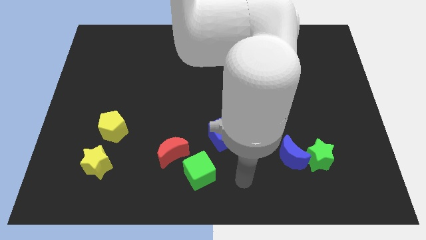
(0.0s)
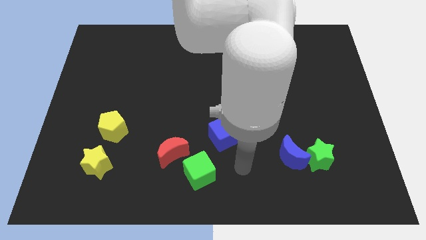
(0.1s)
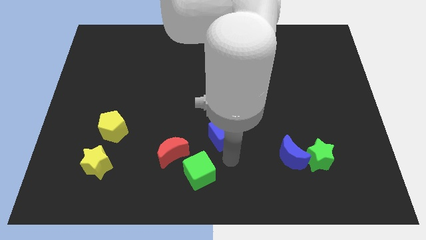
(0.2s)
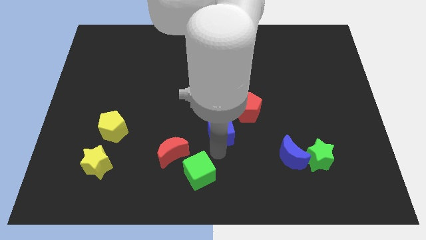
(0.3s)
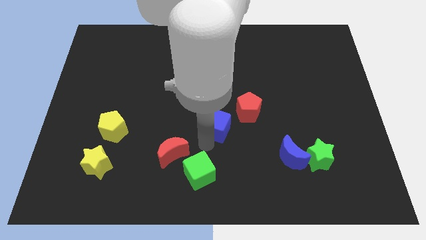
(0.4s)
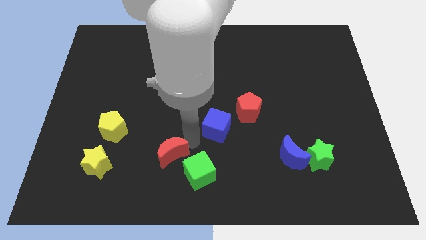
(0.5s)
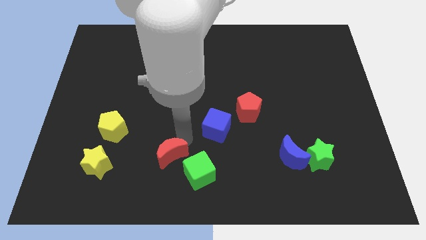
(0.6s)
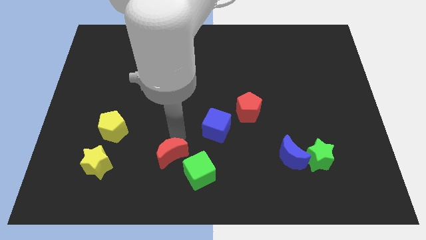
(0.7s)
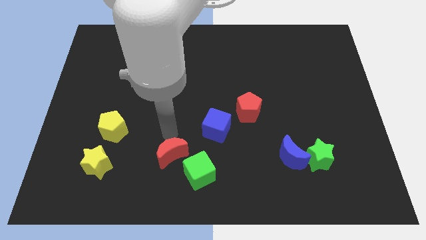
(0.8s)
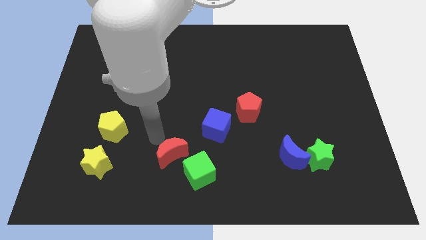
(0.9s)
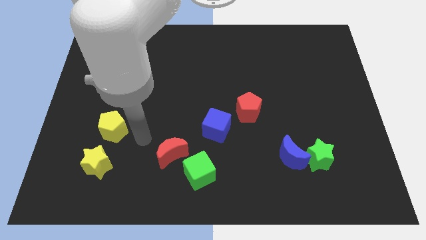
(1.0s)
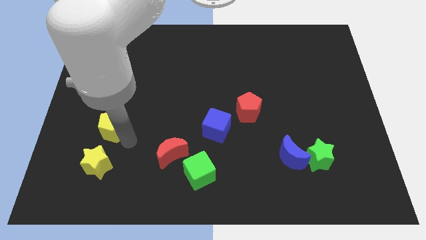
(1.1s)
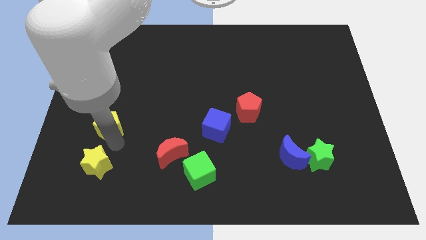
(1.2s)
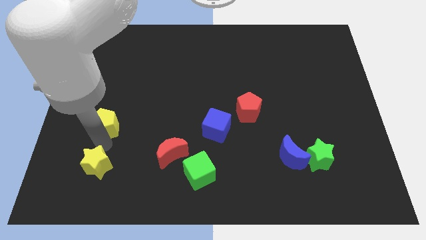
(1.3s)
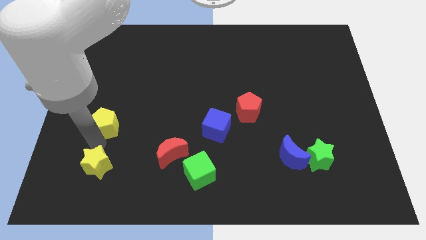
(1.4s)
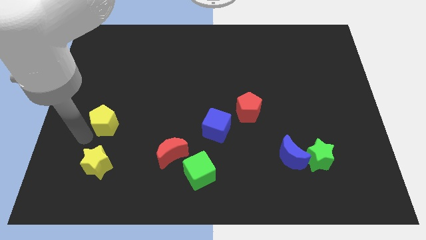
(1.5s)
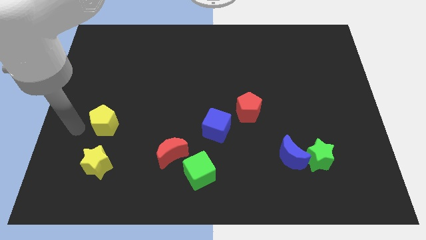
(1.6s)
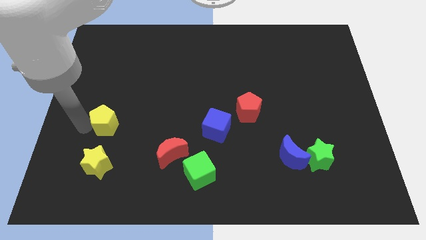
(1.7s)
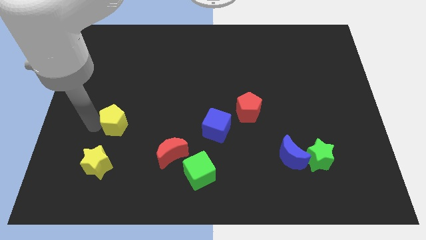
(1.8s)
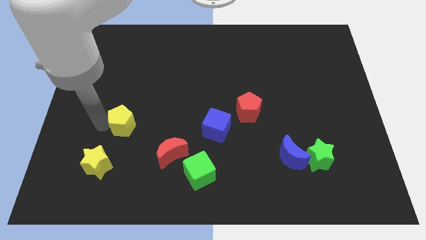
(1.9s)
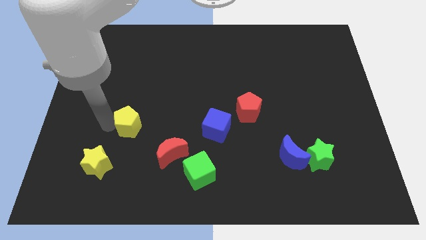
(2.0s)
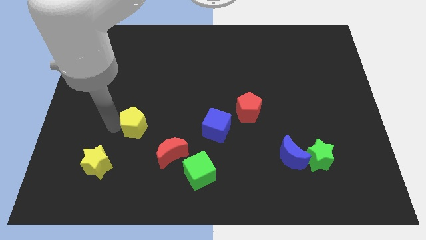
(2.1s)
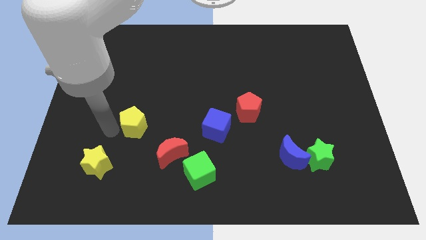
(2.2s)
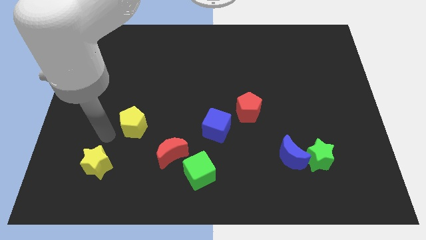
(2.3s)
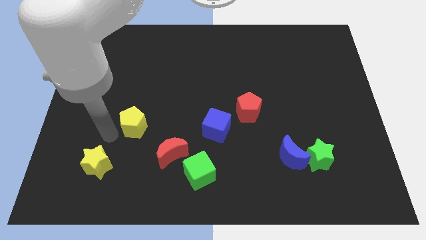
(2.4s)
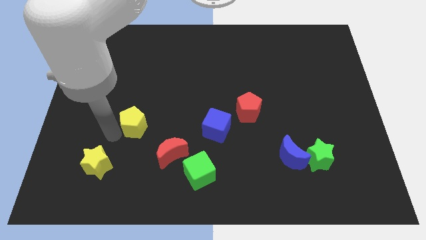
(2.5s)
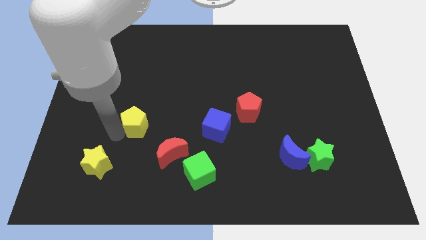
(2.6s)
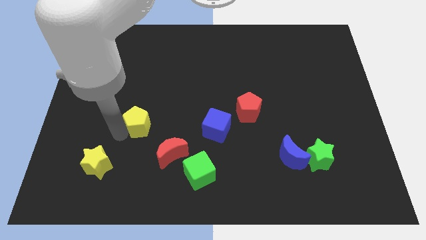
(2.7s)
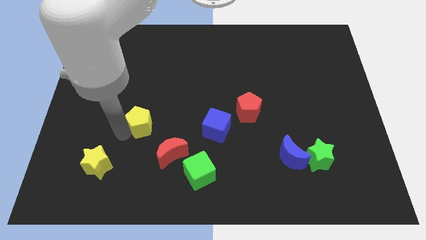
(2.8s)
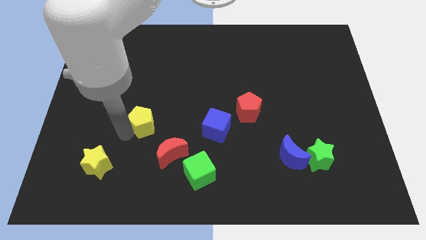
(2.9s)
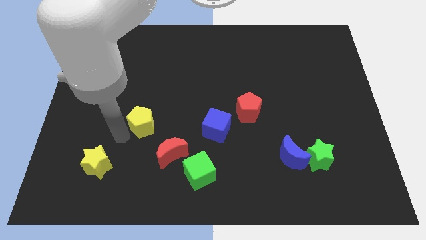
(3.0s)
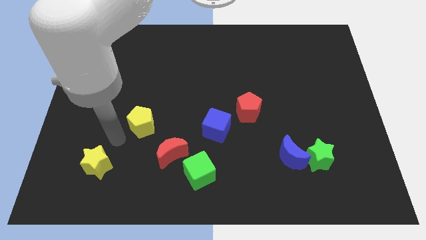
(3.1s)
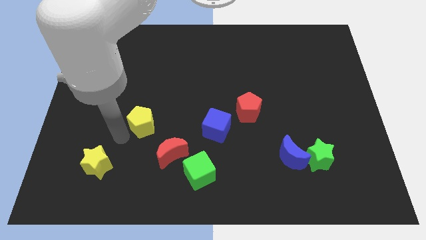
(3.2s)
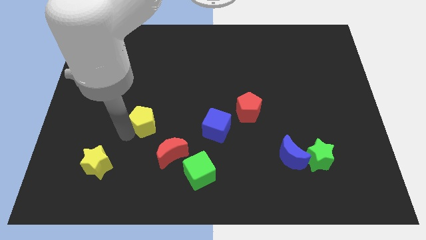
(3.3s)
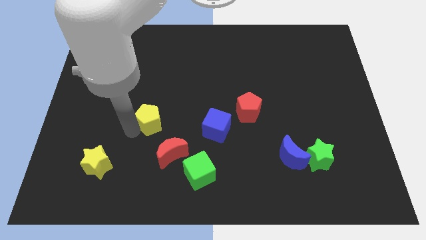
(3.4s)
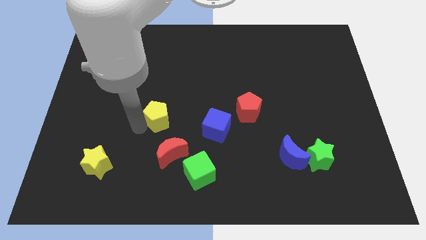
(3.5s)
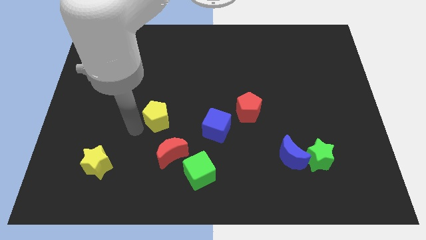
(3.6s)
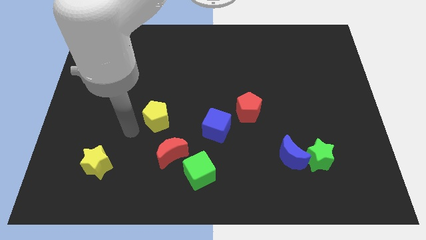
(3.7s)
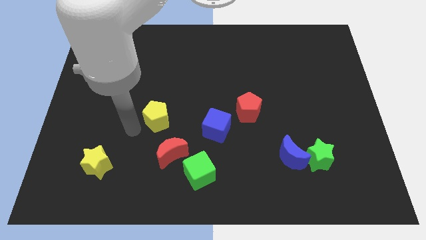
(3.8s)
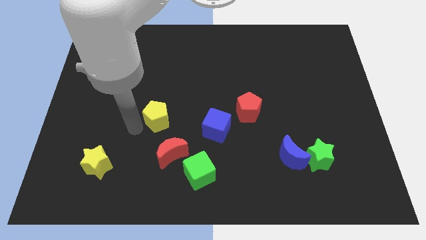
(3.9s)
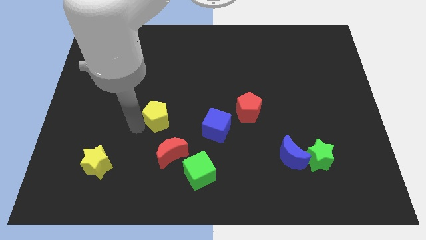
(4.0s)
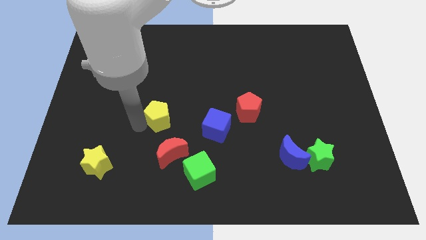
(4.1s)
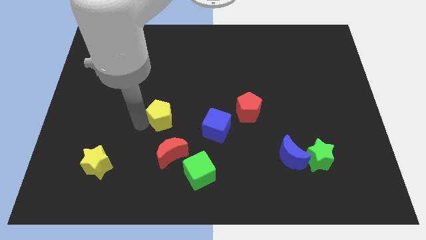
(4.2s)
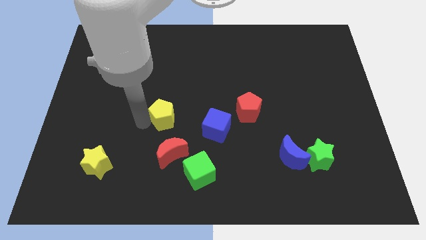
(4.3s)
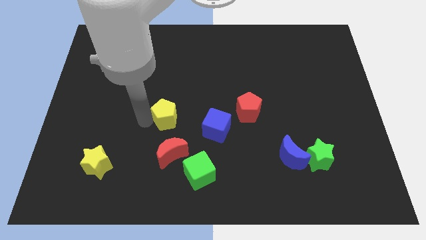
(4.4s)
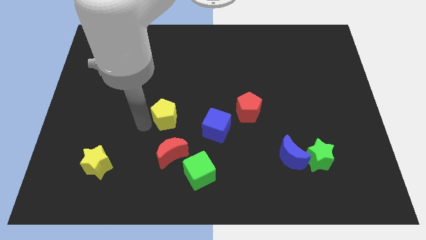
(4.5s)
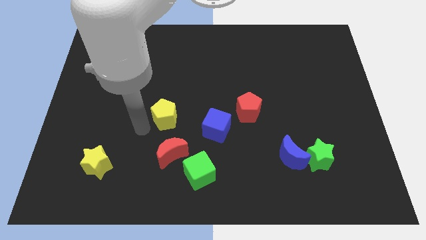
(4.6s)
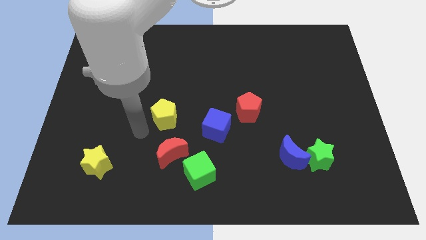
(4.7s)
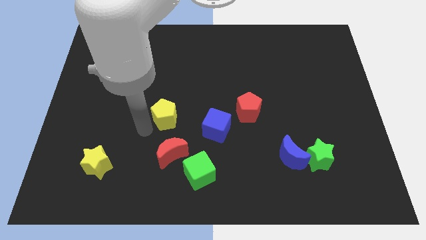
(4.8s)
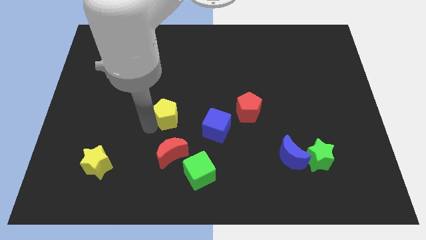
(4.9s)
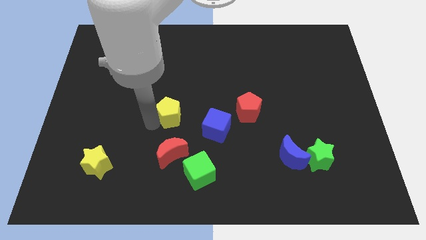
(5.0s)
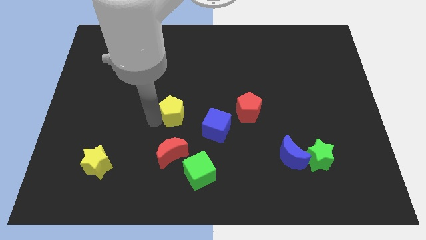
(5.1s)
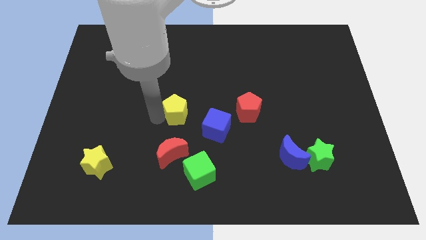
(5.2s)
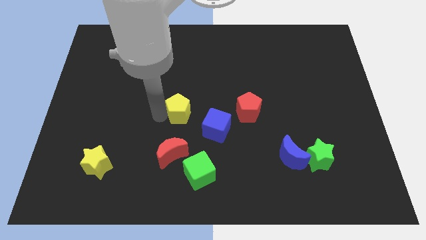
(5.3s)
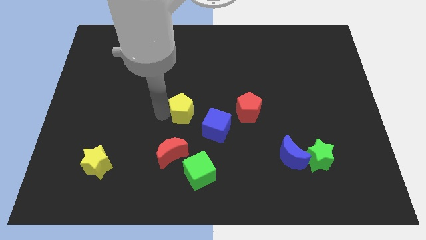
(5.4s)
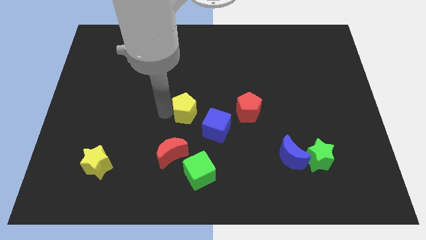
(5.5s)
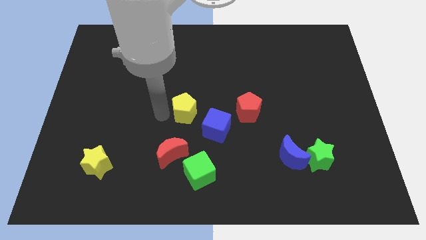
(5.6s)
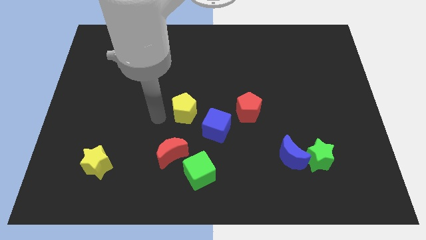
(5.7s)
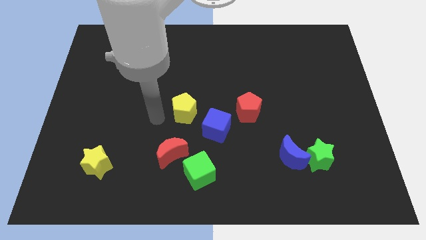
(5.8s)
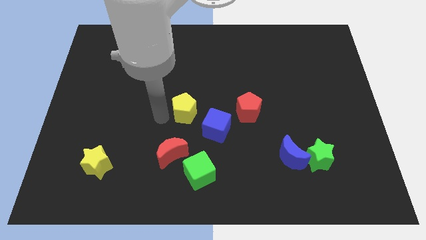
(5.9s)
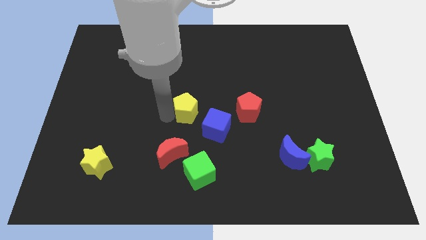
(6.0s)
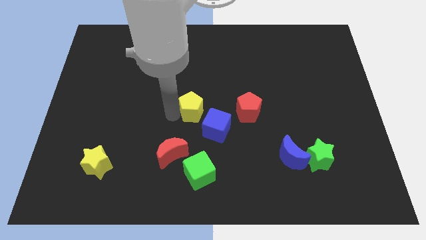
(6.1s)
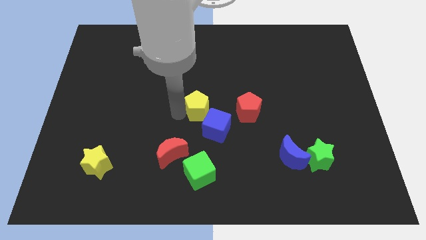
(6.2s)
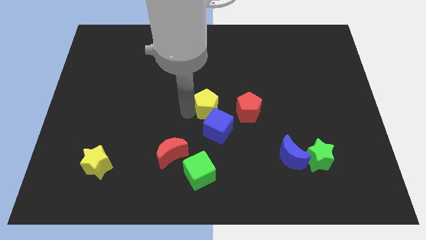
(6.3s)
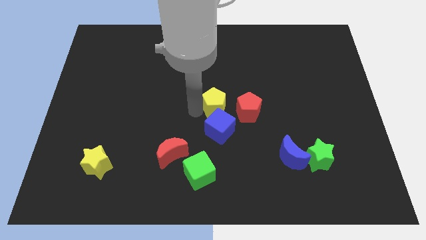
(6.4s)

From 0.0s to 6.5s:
slide the yellow pentagon to the right

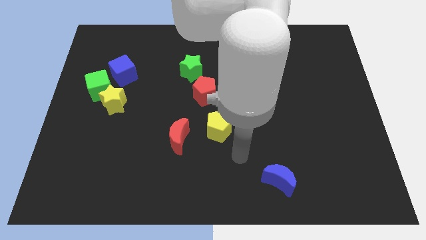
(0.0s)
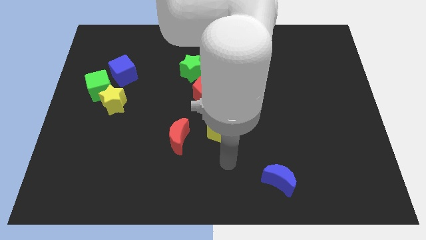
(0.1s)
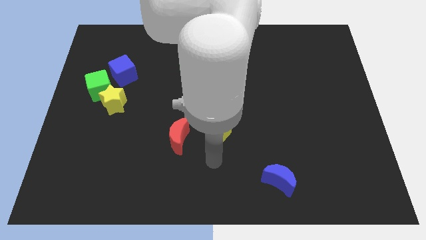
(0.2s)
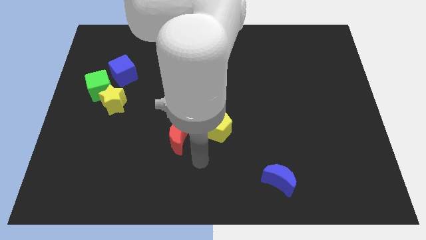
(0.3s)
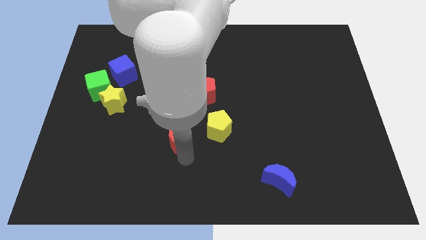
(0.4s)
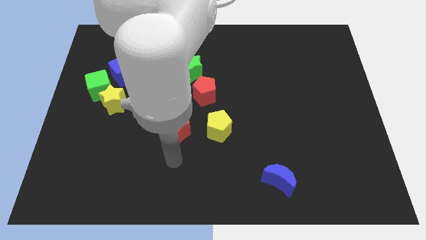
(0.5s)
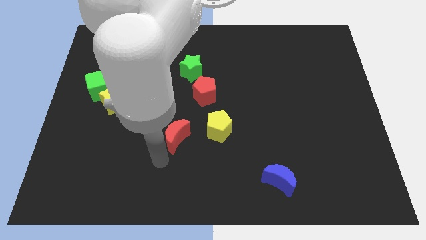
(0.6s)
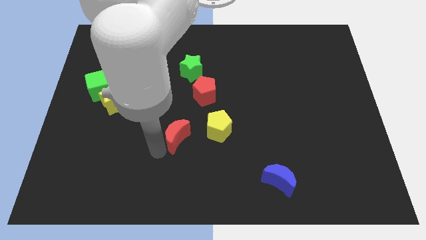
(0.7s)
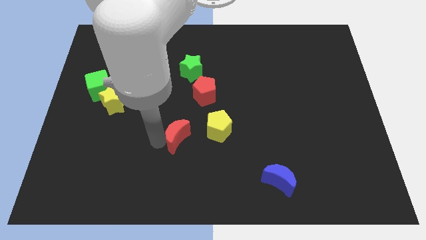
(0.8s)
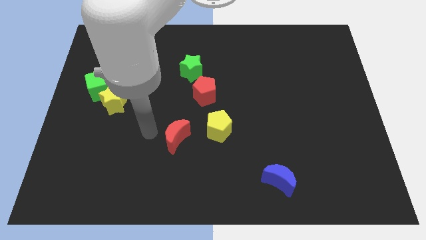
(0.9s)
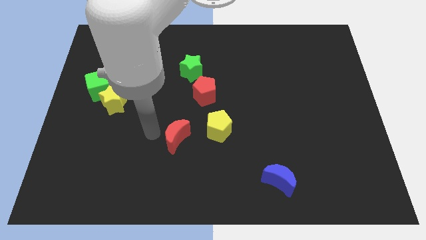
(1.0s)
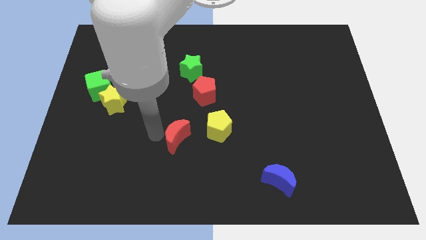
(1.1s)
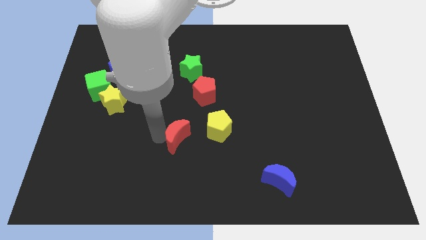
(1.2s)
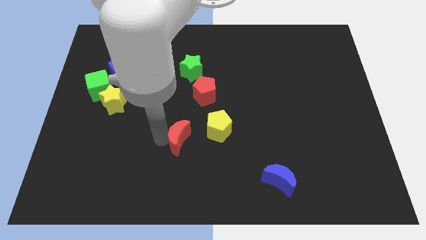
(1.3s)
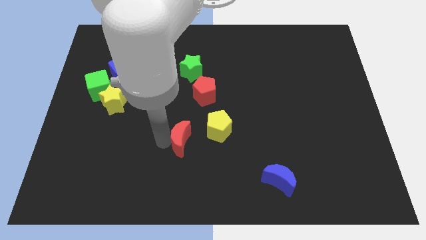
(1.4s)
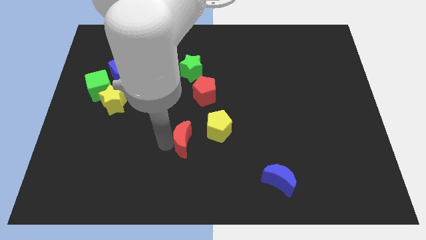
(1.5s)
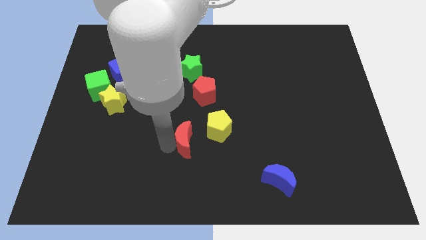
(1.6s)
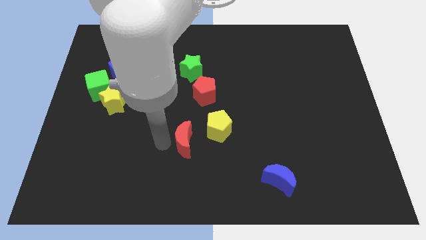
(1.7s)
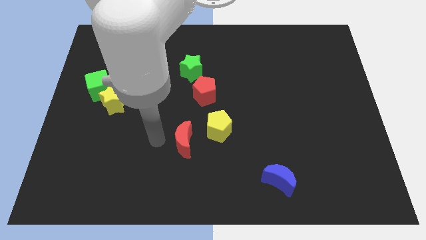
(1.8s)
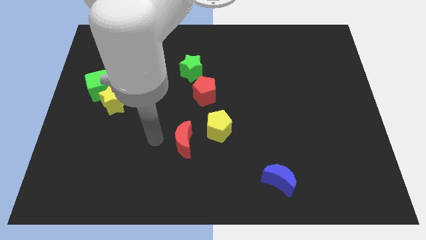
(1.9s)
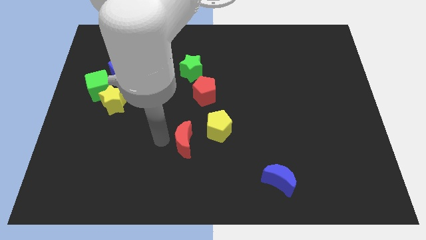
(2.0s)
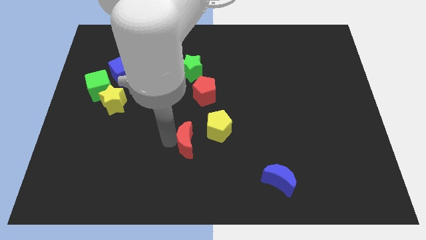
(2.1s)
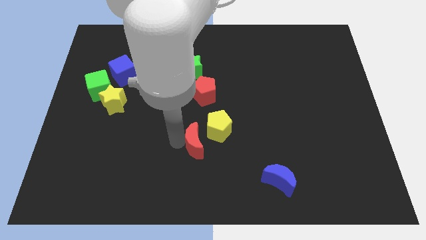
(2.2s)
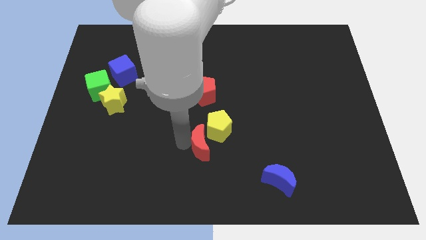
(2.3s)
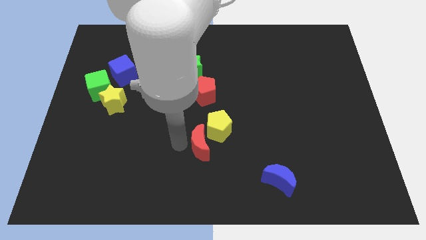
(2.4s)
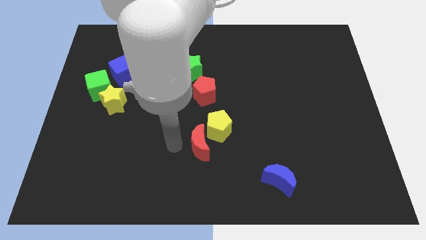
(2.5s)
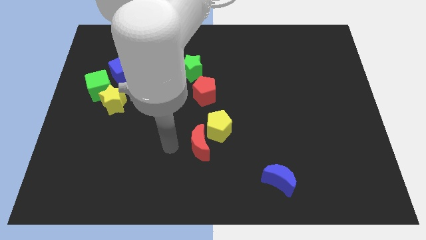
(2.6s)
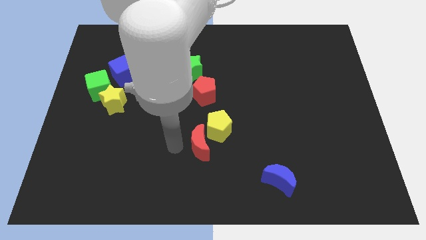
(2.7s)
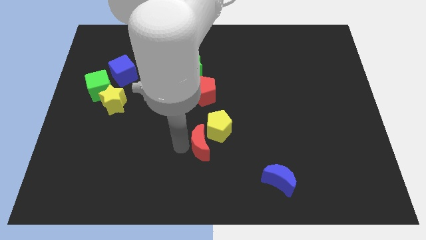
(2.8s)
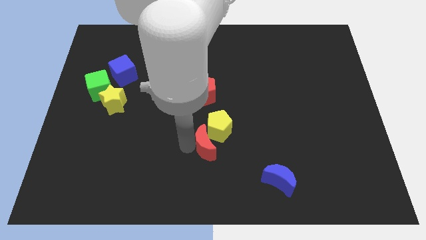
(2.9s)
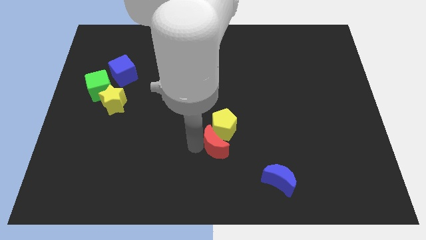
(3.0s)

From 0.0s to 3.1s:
slightly push the red moon right
